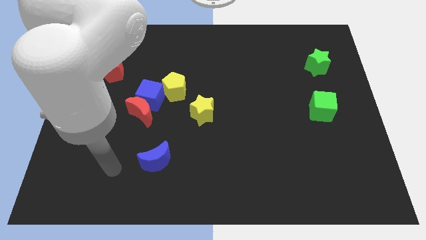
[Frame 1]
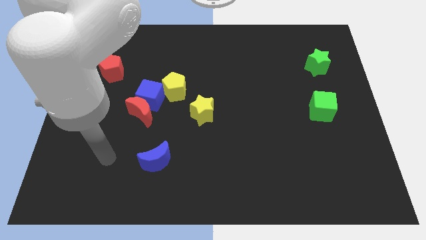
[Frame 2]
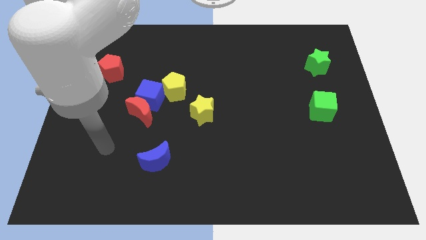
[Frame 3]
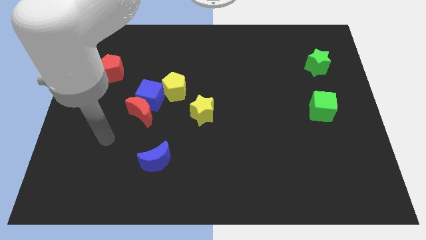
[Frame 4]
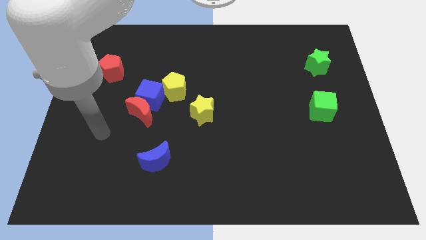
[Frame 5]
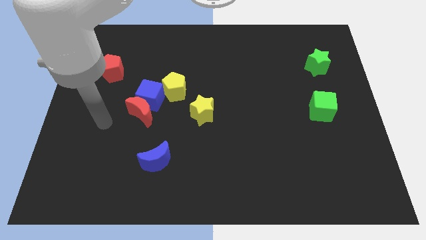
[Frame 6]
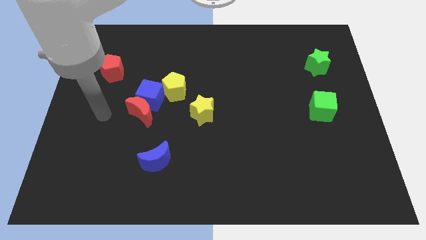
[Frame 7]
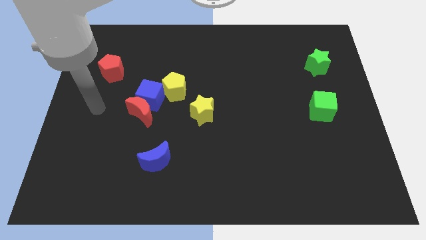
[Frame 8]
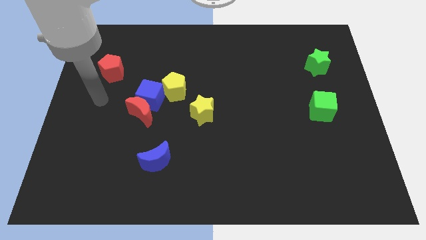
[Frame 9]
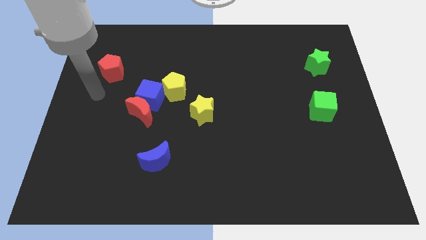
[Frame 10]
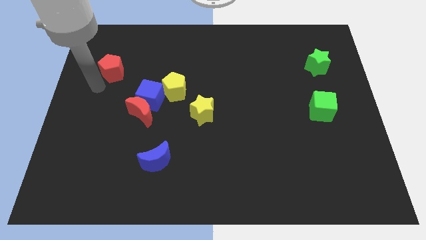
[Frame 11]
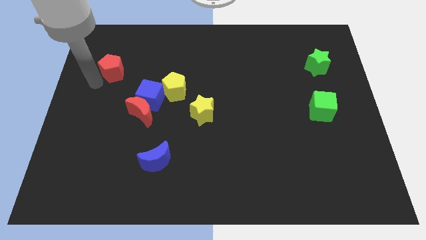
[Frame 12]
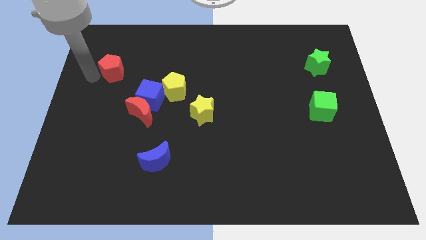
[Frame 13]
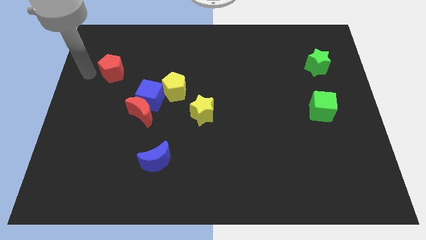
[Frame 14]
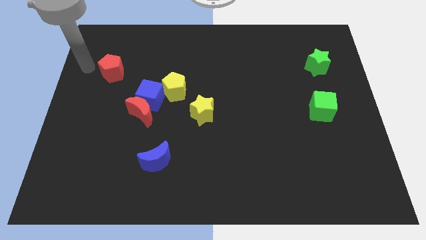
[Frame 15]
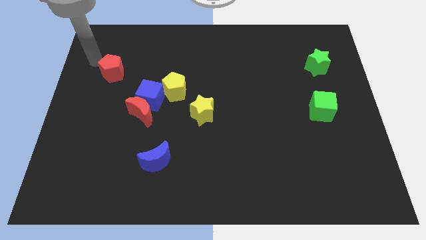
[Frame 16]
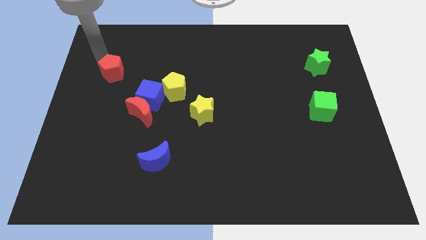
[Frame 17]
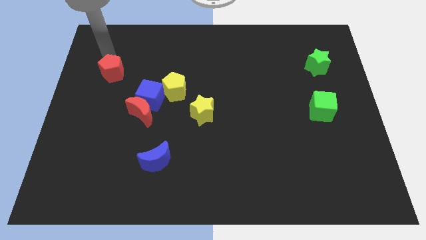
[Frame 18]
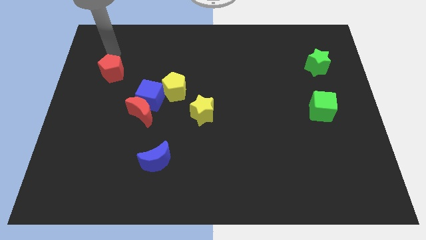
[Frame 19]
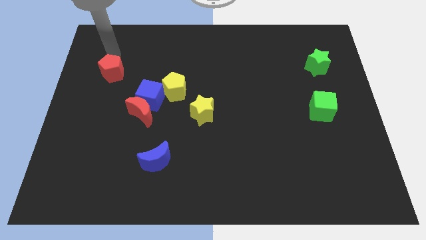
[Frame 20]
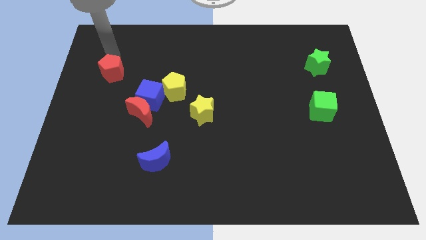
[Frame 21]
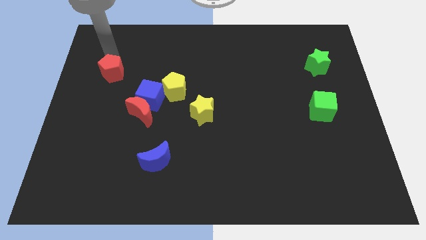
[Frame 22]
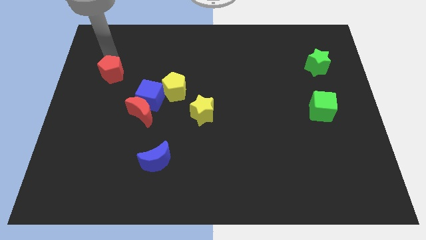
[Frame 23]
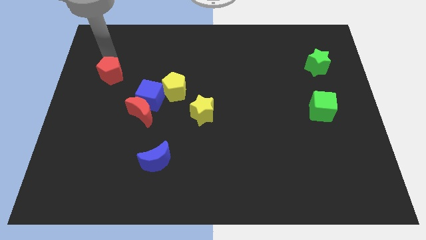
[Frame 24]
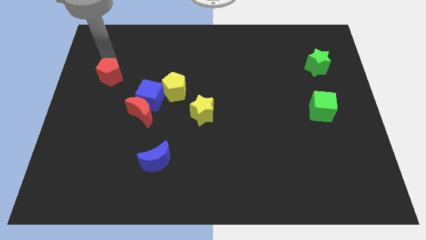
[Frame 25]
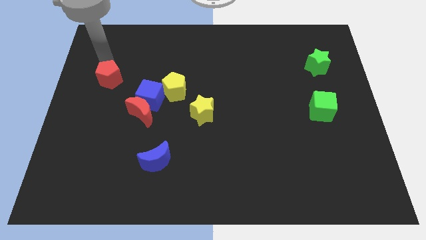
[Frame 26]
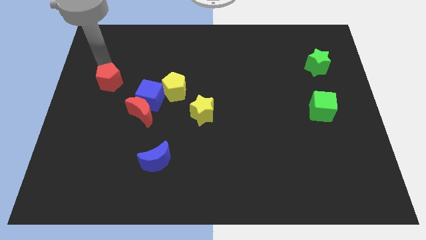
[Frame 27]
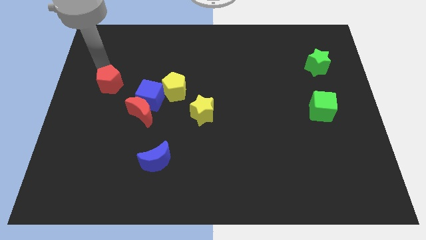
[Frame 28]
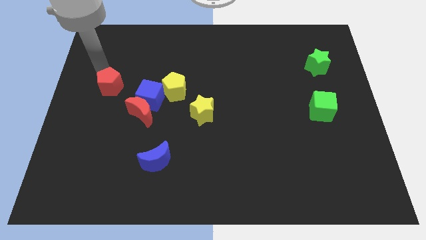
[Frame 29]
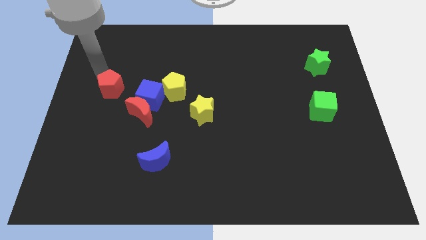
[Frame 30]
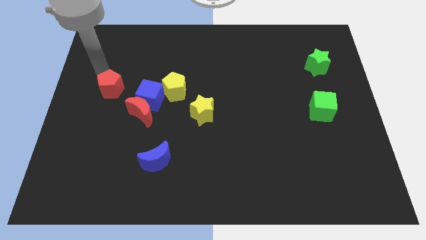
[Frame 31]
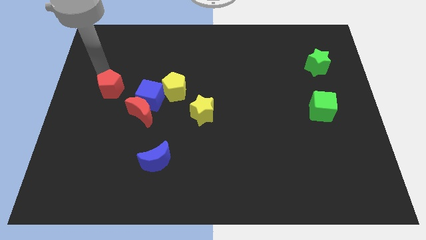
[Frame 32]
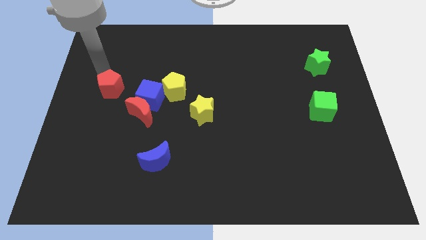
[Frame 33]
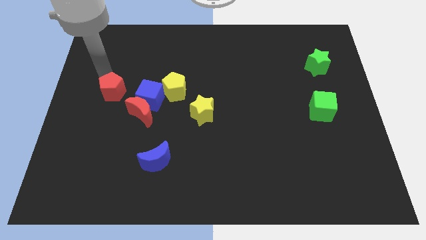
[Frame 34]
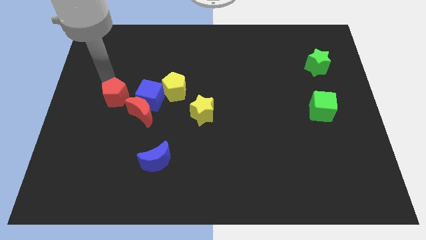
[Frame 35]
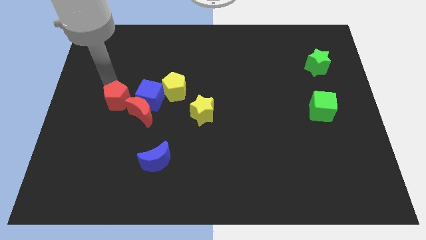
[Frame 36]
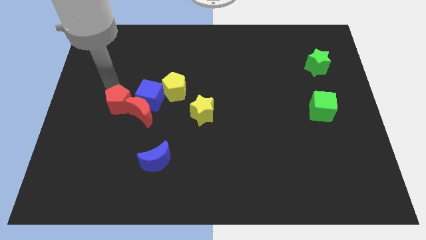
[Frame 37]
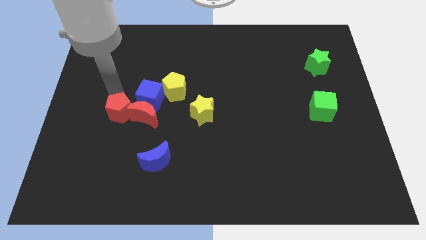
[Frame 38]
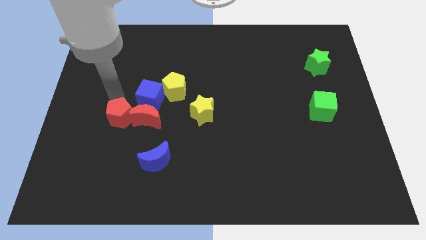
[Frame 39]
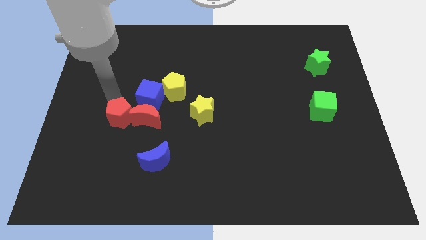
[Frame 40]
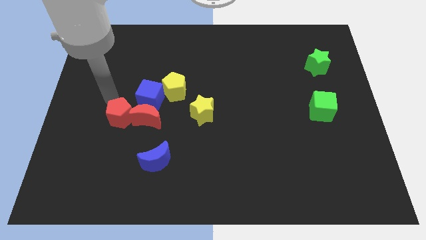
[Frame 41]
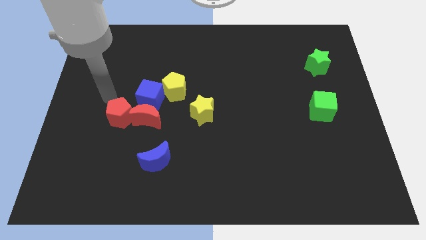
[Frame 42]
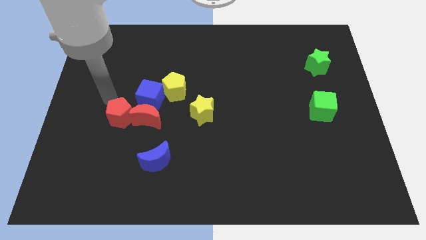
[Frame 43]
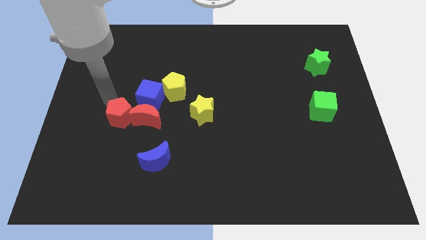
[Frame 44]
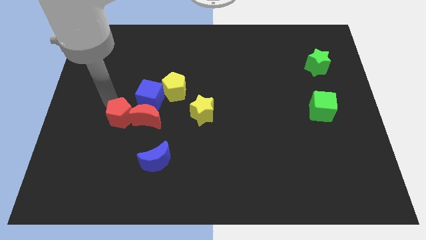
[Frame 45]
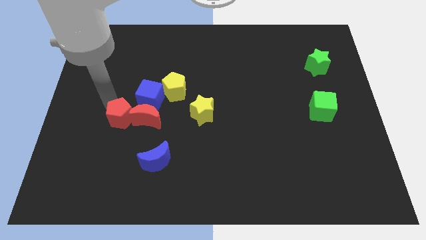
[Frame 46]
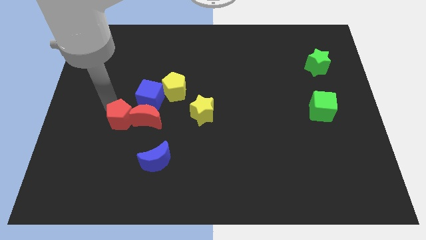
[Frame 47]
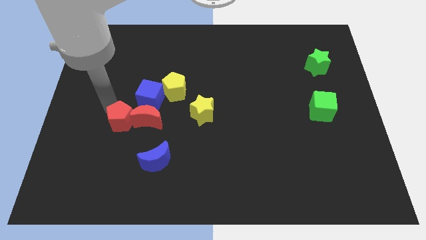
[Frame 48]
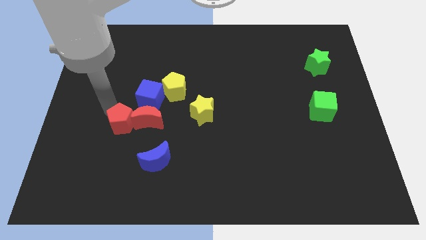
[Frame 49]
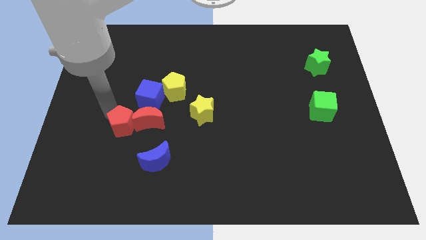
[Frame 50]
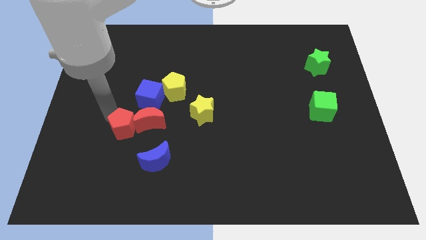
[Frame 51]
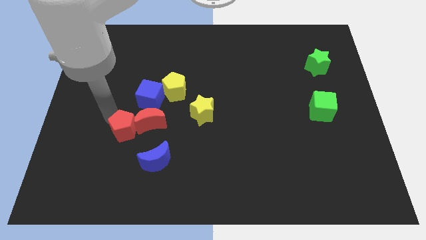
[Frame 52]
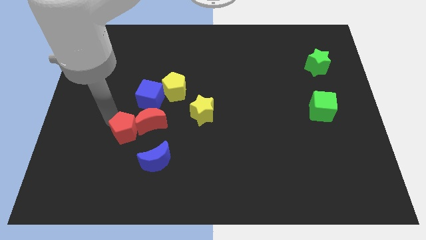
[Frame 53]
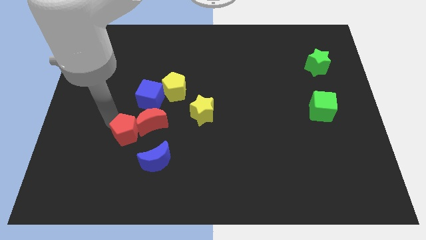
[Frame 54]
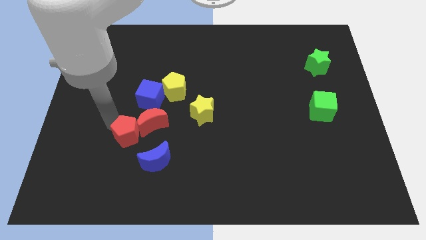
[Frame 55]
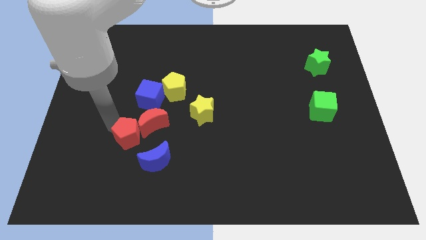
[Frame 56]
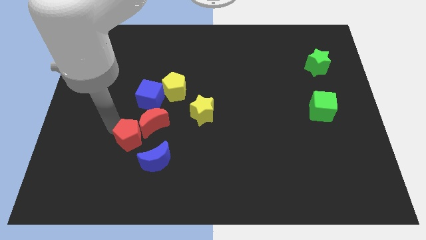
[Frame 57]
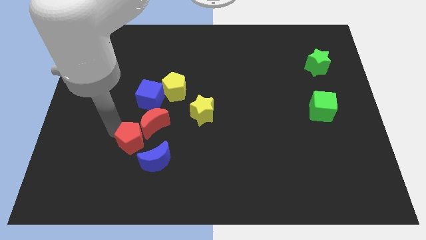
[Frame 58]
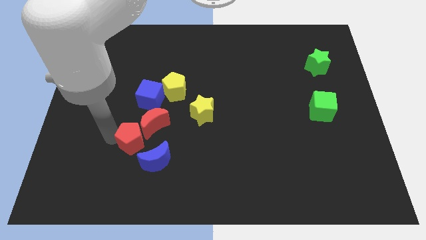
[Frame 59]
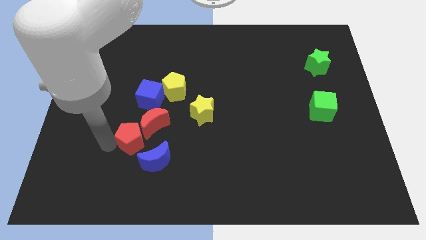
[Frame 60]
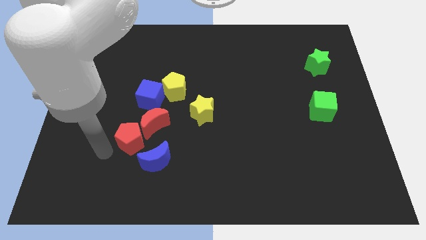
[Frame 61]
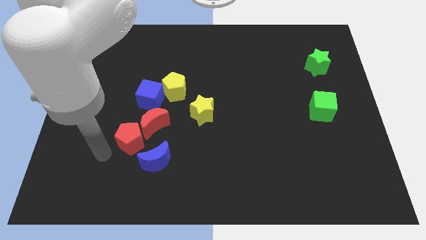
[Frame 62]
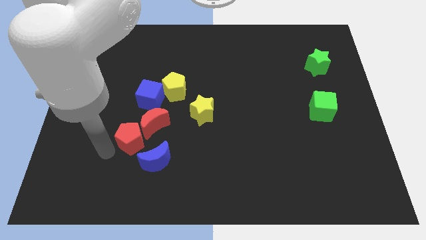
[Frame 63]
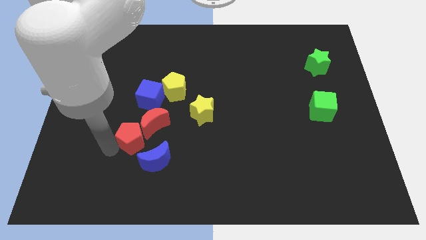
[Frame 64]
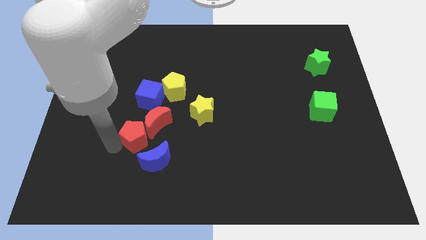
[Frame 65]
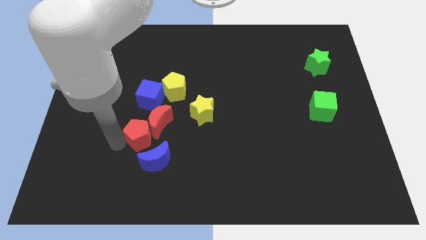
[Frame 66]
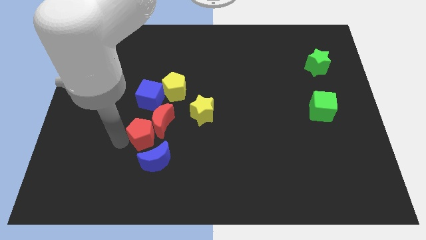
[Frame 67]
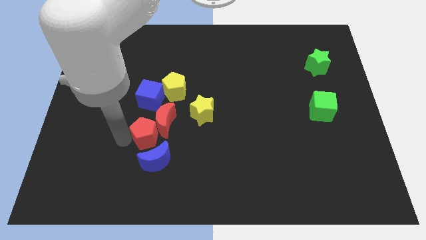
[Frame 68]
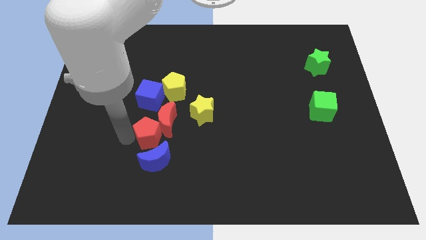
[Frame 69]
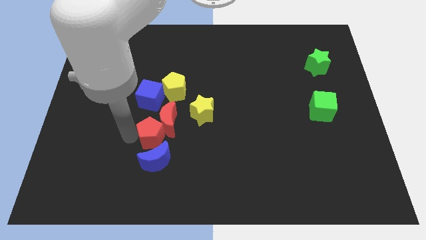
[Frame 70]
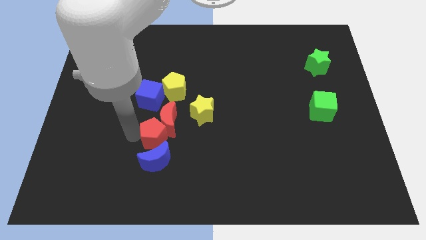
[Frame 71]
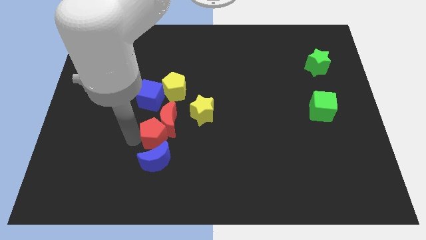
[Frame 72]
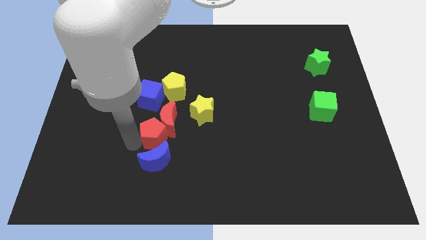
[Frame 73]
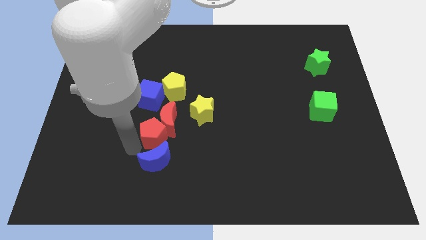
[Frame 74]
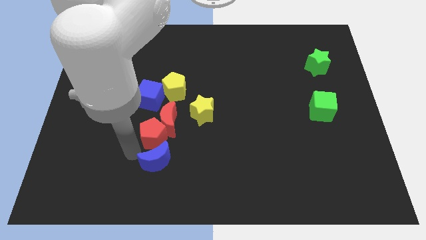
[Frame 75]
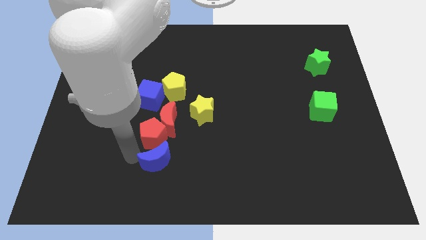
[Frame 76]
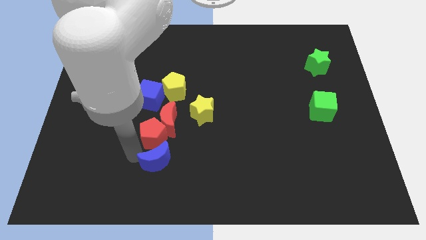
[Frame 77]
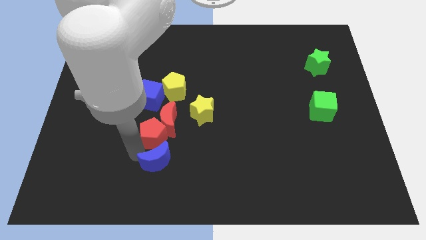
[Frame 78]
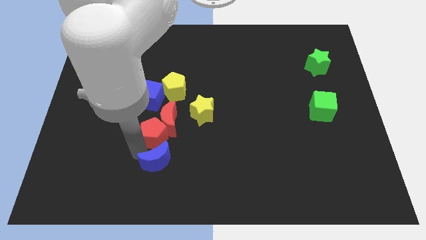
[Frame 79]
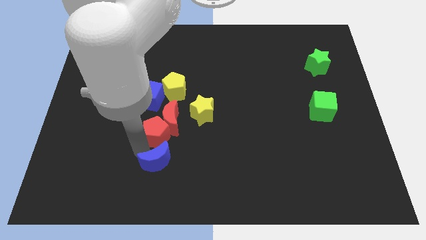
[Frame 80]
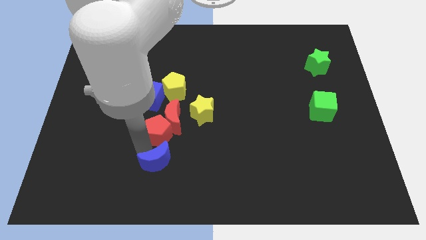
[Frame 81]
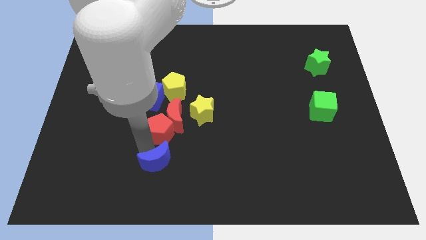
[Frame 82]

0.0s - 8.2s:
put the red pentagon just left of the yellow star
